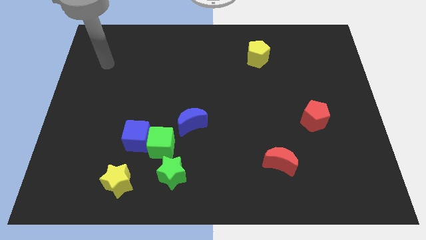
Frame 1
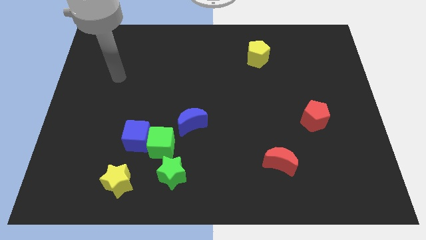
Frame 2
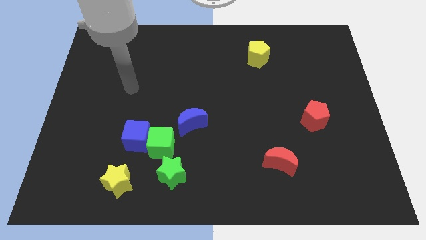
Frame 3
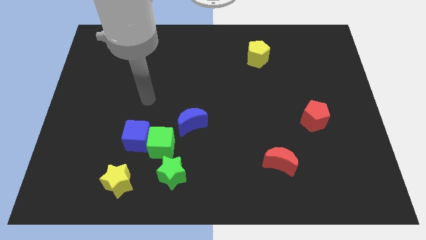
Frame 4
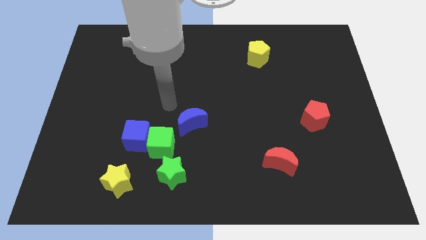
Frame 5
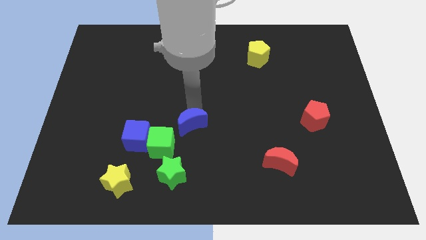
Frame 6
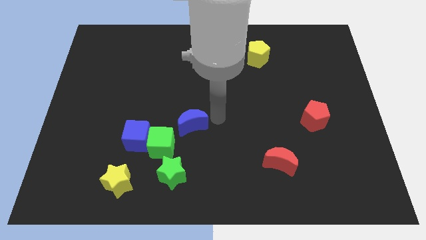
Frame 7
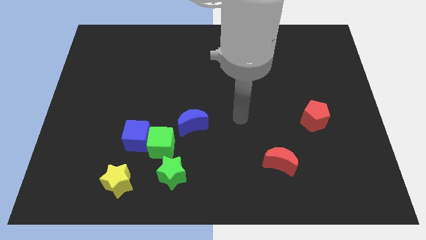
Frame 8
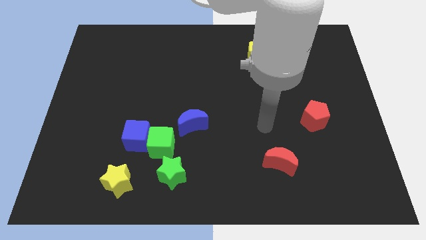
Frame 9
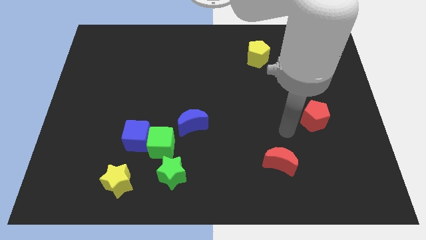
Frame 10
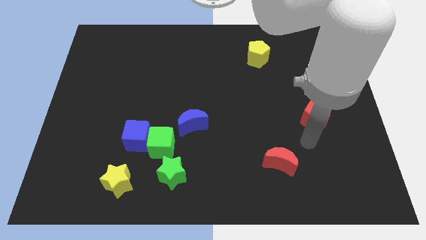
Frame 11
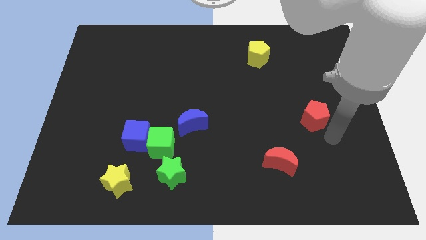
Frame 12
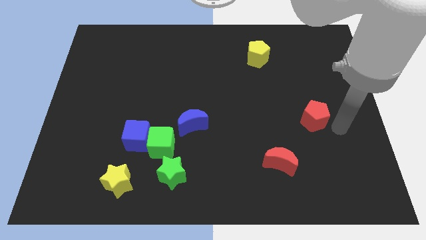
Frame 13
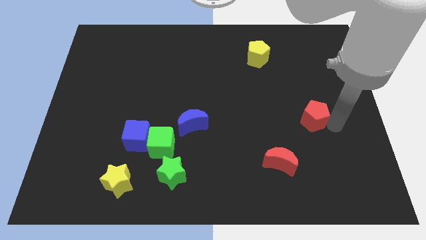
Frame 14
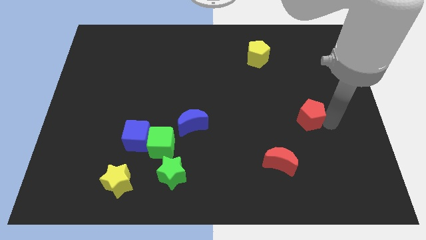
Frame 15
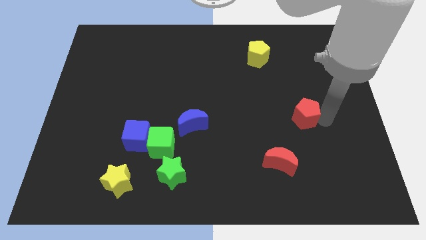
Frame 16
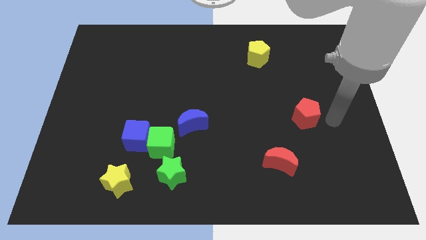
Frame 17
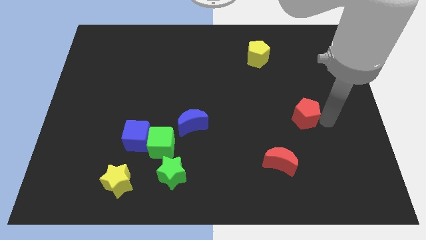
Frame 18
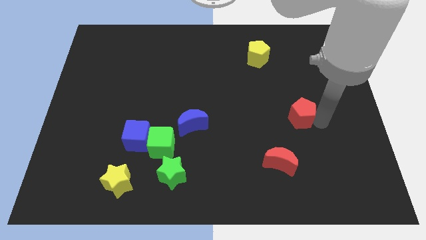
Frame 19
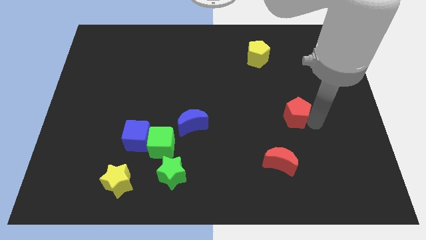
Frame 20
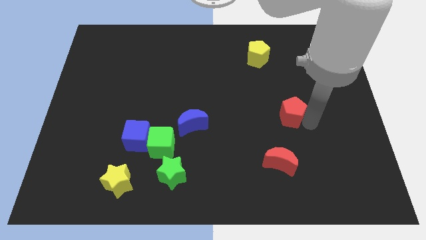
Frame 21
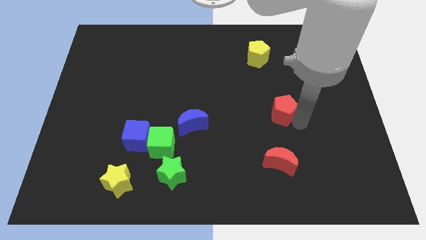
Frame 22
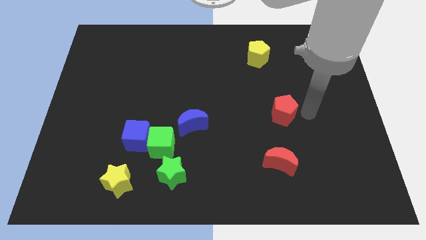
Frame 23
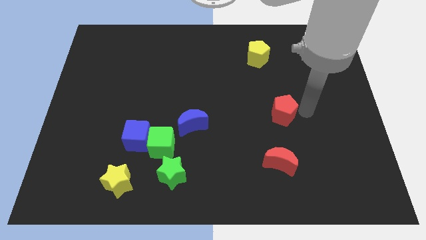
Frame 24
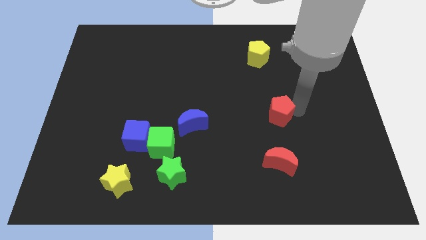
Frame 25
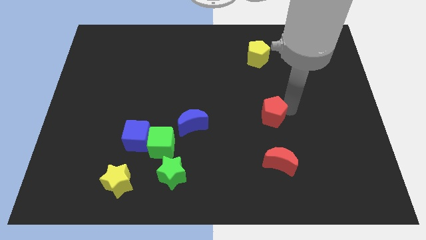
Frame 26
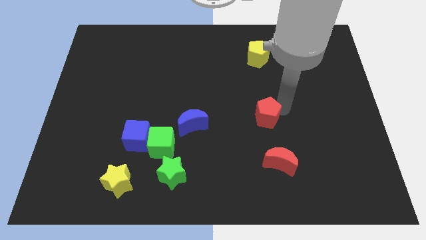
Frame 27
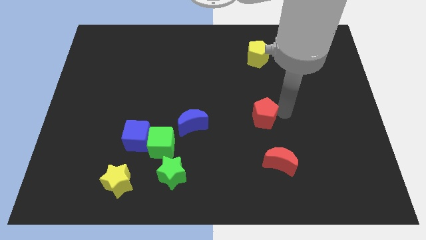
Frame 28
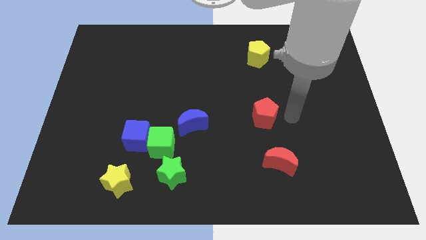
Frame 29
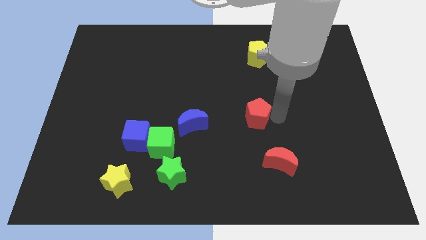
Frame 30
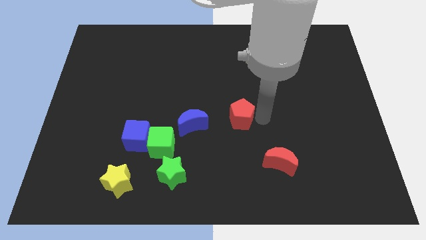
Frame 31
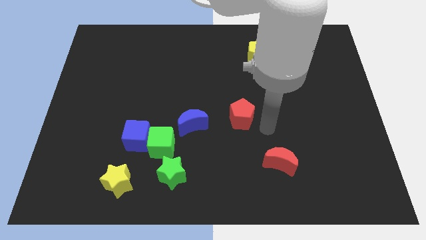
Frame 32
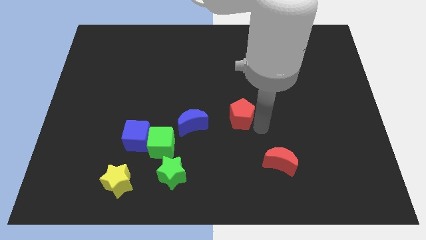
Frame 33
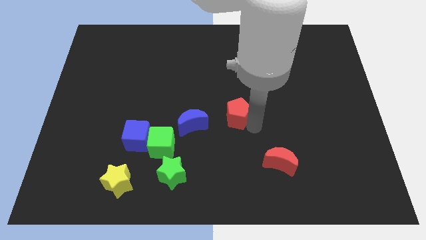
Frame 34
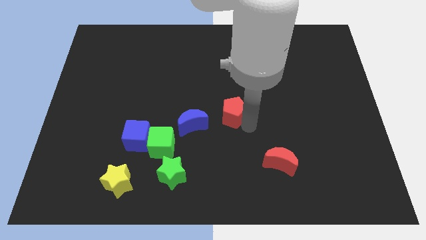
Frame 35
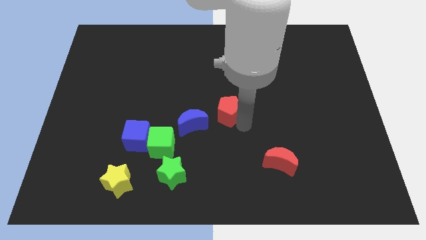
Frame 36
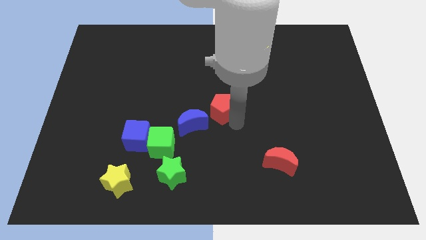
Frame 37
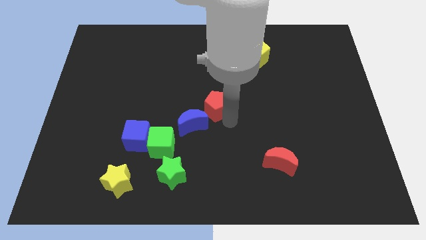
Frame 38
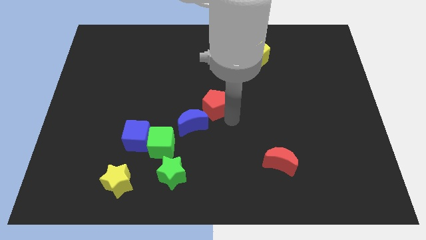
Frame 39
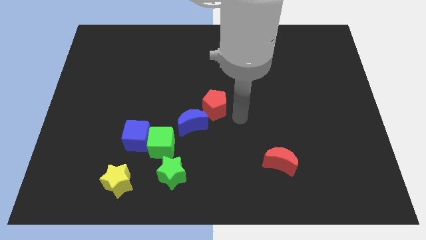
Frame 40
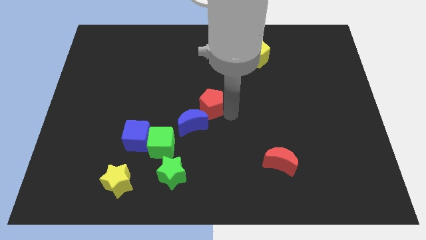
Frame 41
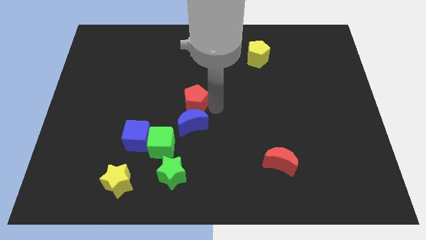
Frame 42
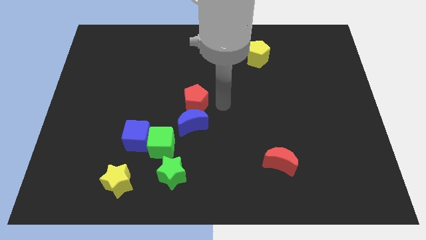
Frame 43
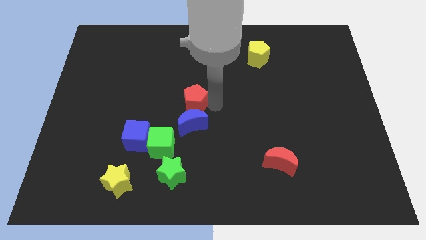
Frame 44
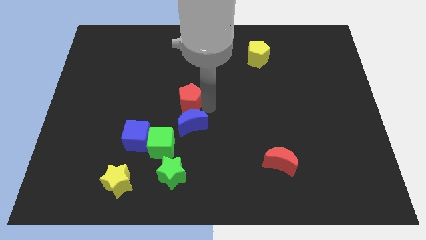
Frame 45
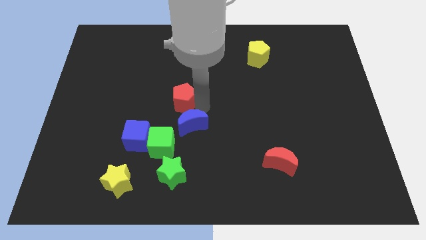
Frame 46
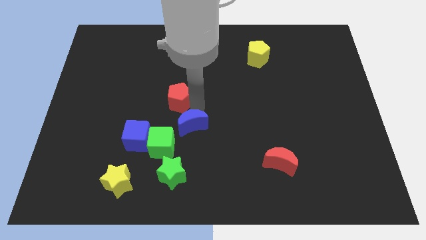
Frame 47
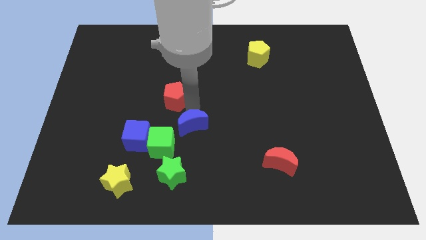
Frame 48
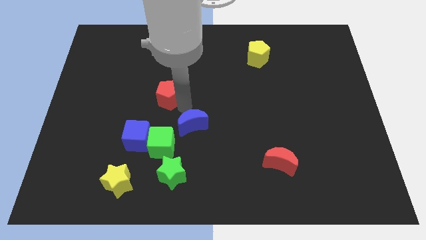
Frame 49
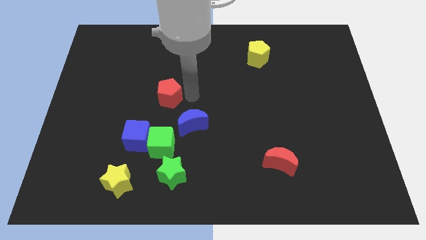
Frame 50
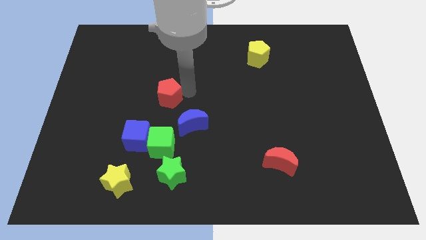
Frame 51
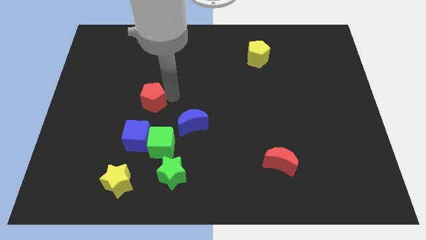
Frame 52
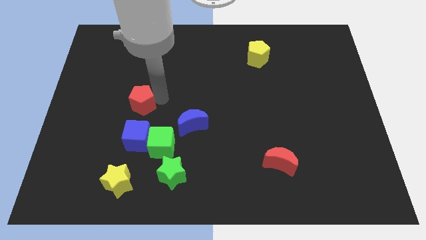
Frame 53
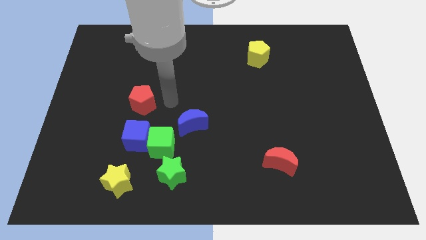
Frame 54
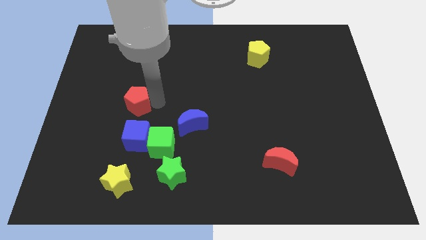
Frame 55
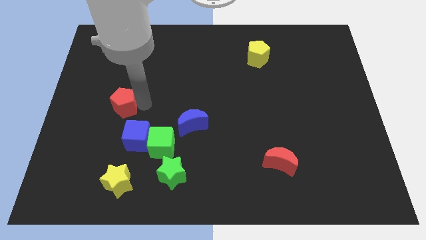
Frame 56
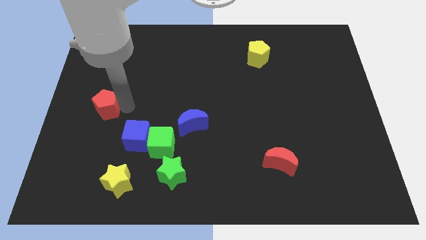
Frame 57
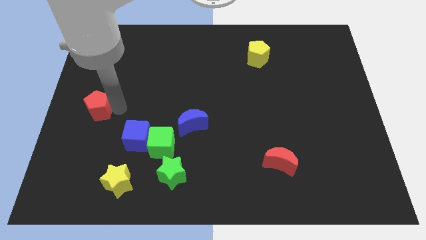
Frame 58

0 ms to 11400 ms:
slide the red pentagon to the left side of the board
